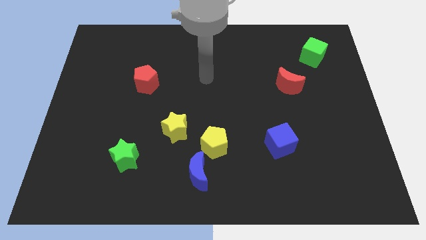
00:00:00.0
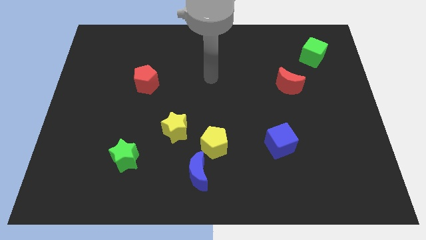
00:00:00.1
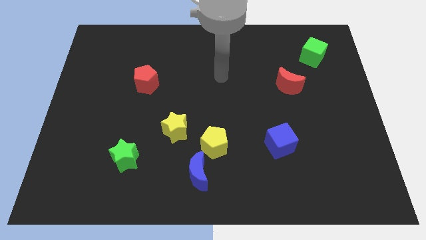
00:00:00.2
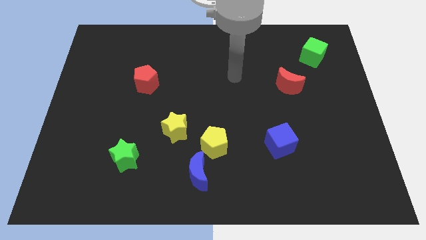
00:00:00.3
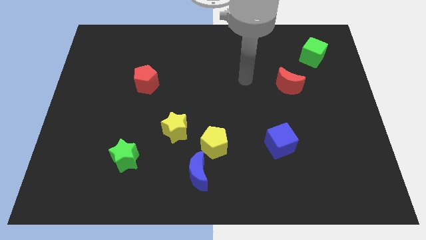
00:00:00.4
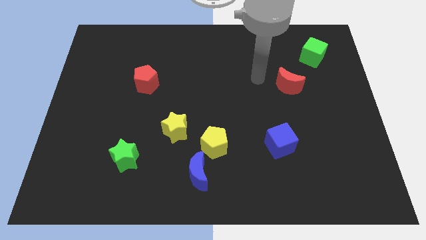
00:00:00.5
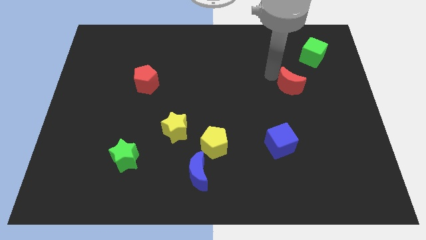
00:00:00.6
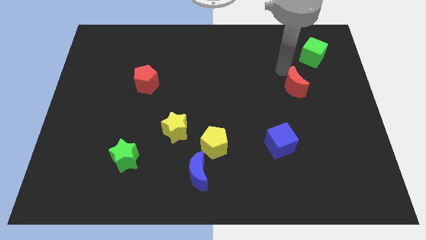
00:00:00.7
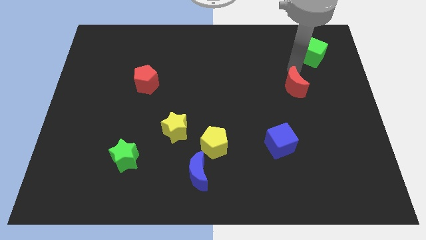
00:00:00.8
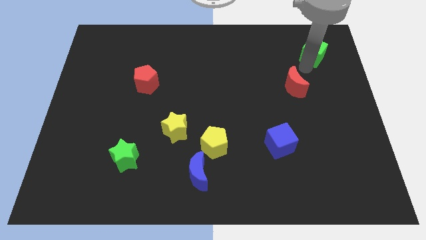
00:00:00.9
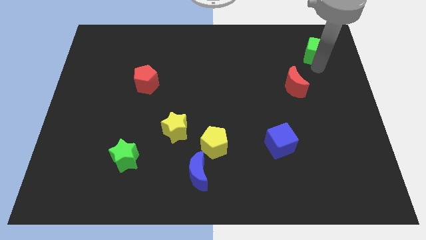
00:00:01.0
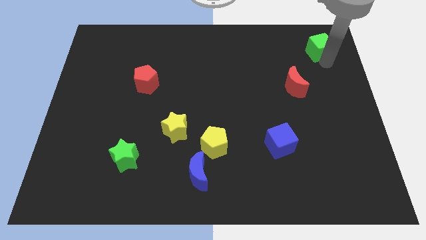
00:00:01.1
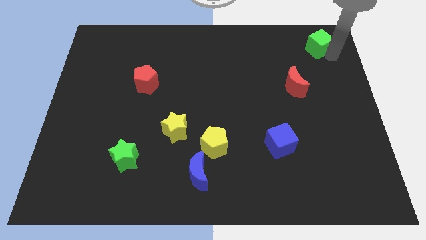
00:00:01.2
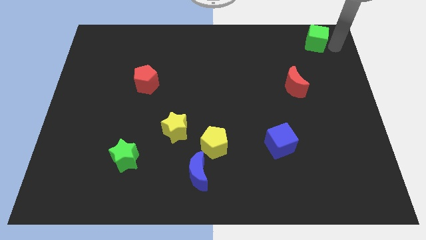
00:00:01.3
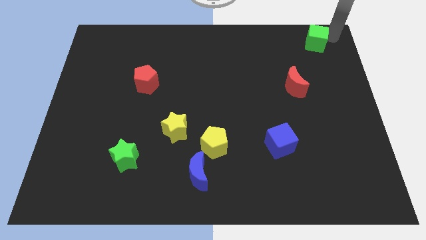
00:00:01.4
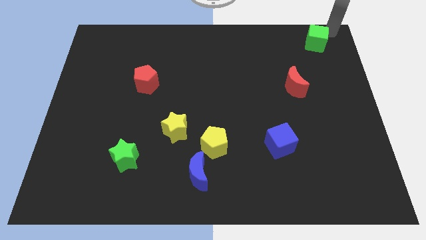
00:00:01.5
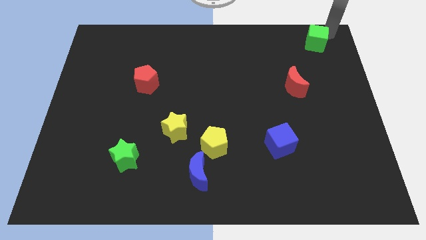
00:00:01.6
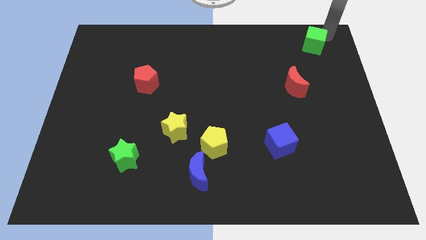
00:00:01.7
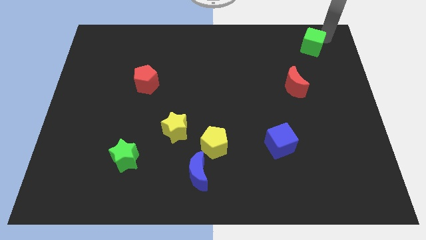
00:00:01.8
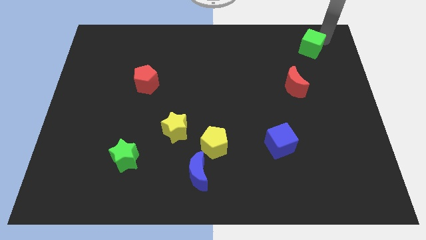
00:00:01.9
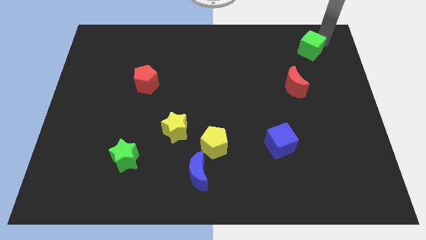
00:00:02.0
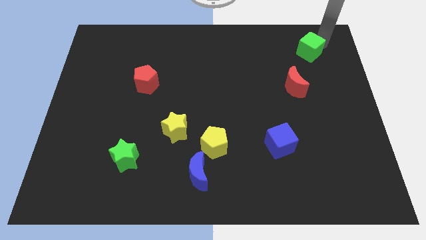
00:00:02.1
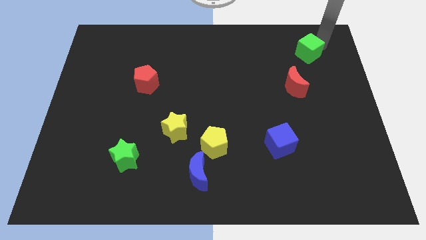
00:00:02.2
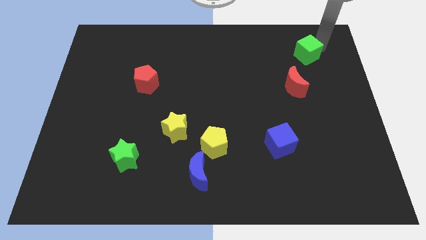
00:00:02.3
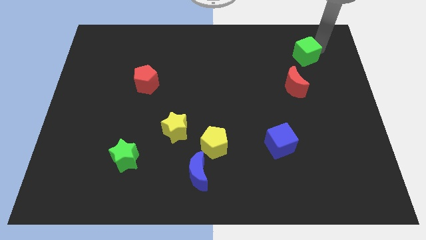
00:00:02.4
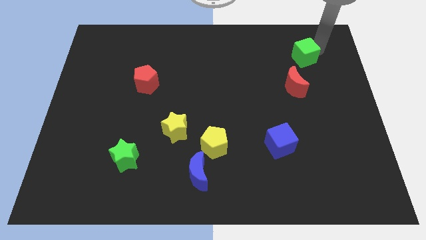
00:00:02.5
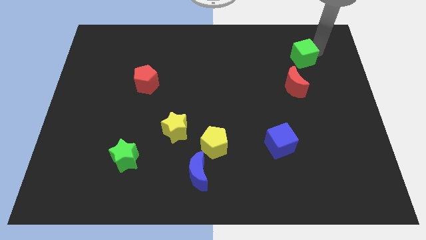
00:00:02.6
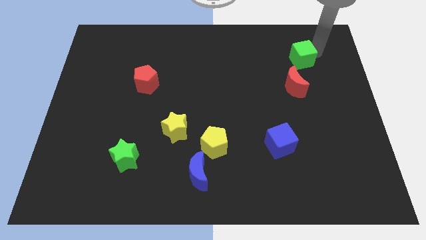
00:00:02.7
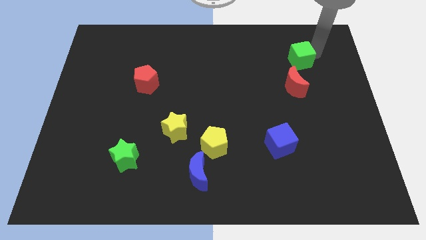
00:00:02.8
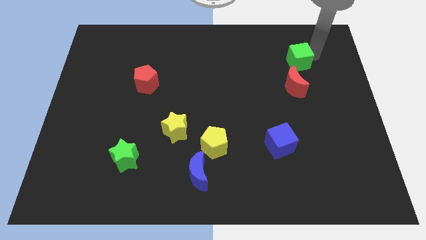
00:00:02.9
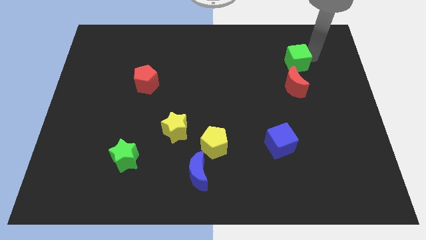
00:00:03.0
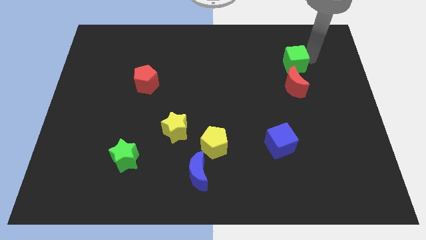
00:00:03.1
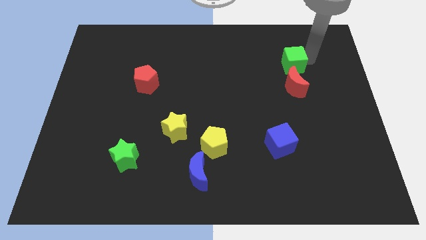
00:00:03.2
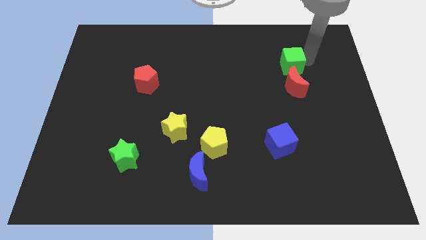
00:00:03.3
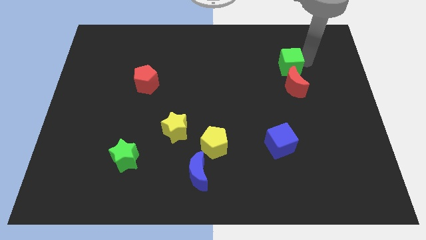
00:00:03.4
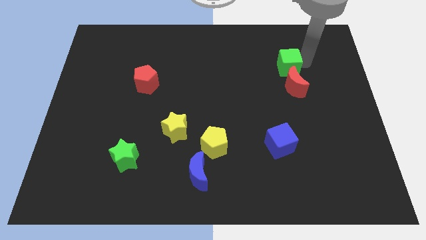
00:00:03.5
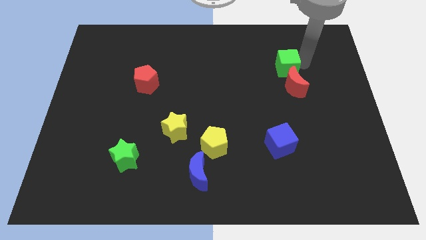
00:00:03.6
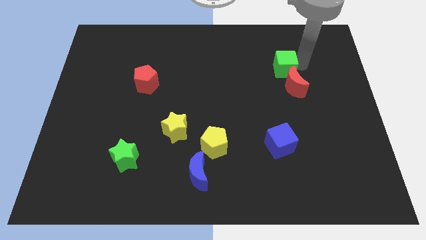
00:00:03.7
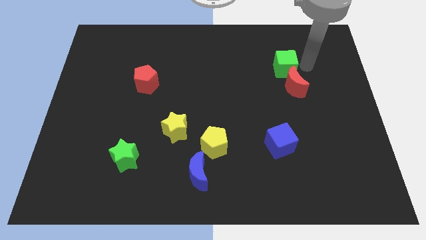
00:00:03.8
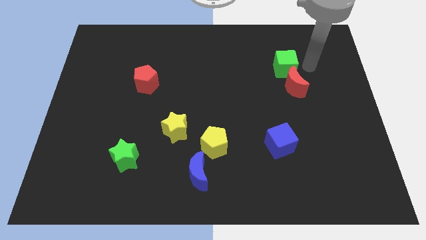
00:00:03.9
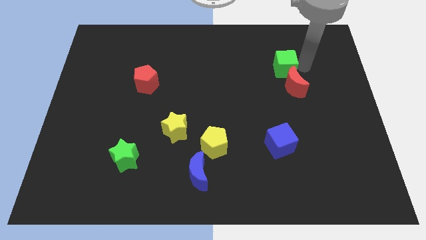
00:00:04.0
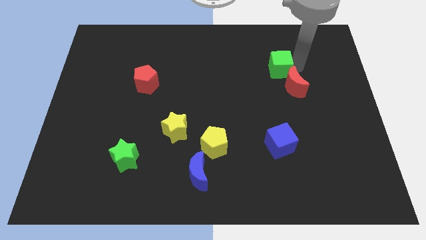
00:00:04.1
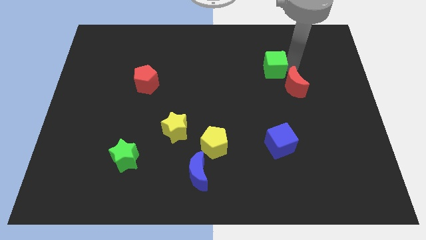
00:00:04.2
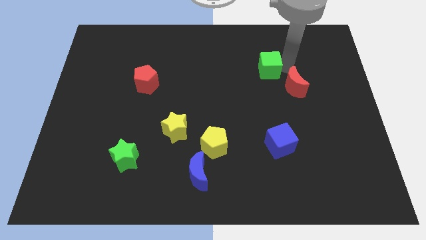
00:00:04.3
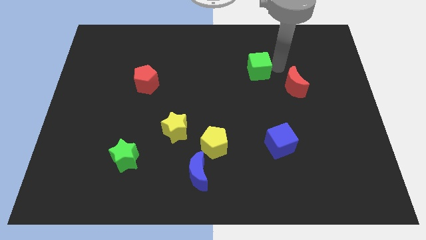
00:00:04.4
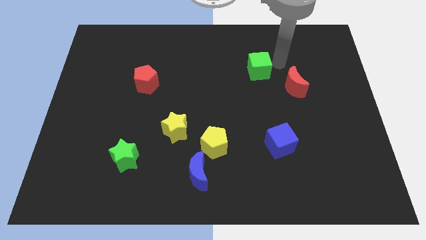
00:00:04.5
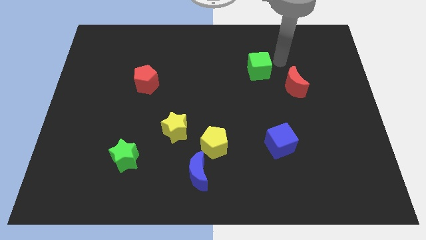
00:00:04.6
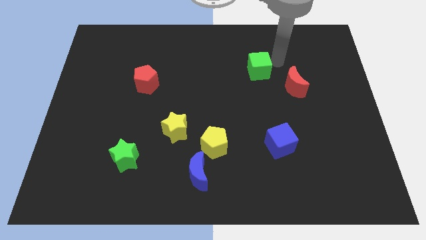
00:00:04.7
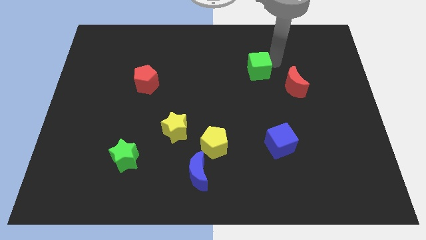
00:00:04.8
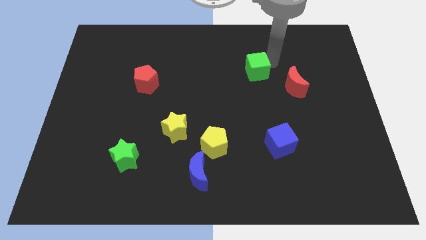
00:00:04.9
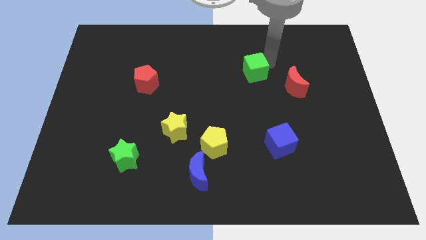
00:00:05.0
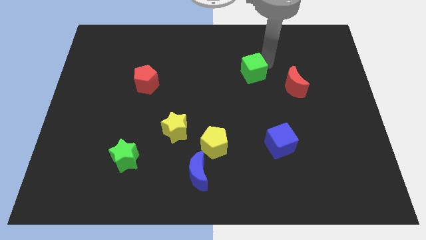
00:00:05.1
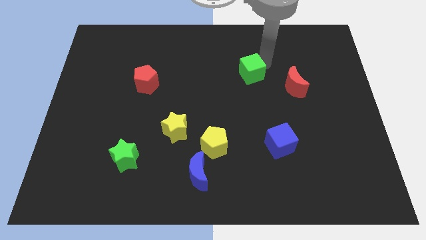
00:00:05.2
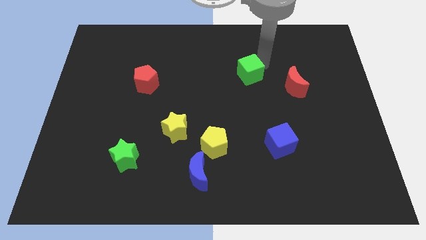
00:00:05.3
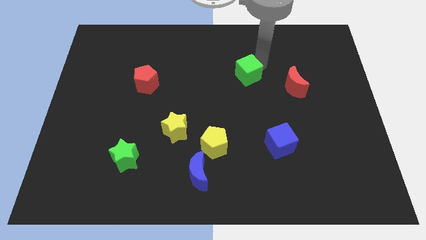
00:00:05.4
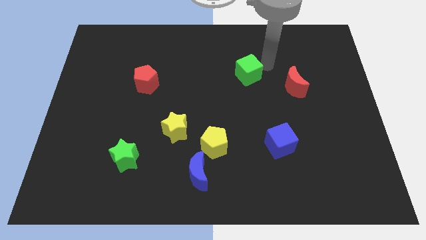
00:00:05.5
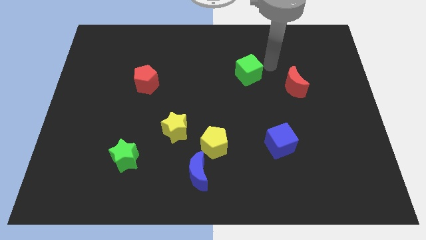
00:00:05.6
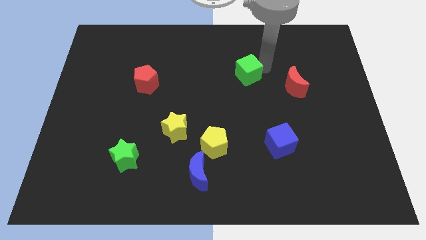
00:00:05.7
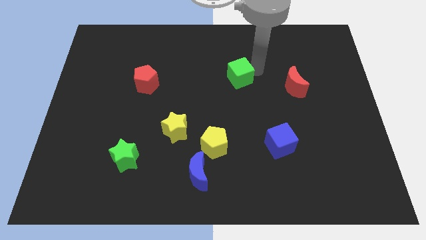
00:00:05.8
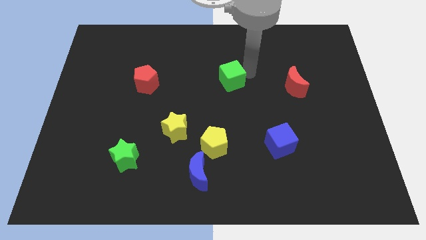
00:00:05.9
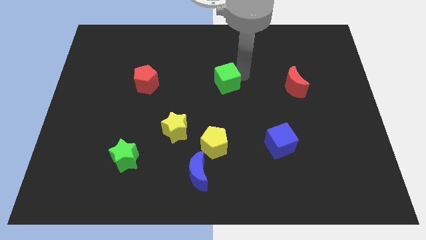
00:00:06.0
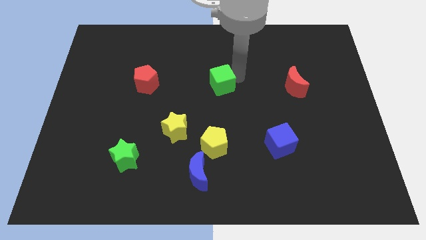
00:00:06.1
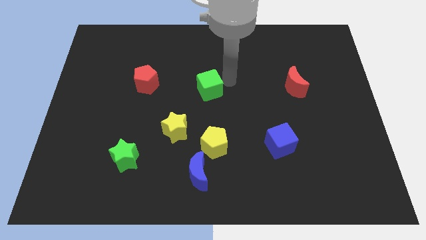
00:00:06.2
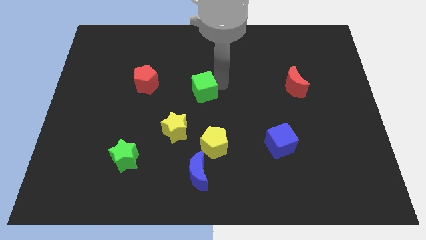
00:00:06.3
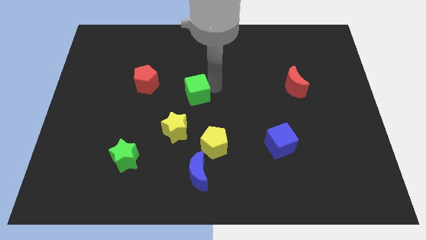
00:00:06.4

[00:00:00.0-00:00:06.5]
push the green cube to the top side of the yellow star

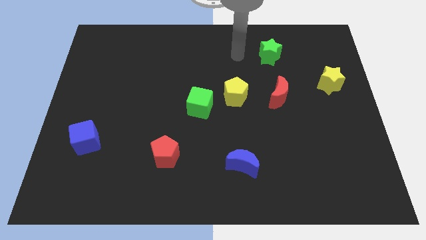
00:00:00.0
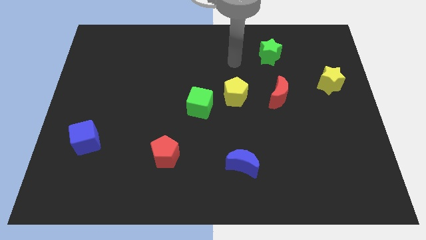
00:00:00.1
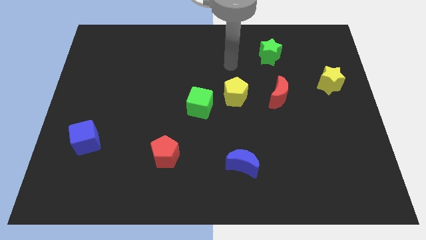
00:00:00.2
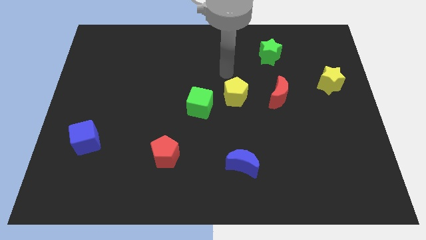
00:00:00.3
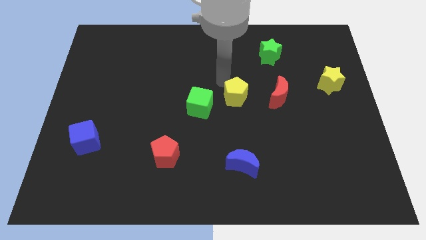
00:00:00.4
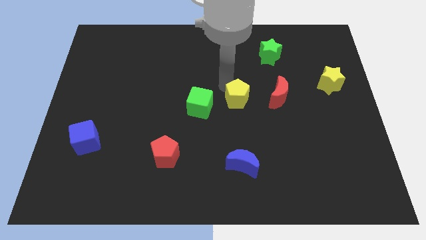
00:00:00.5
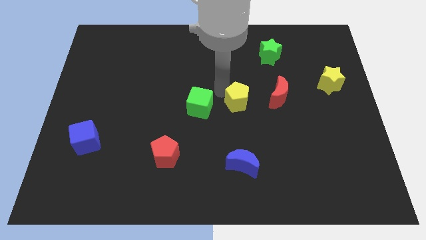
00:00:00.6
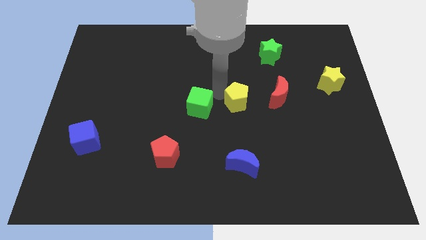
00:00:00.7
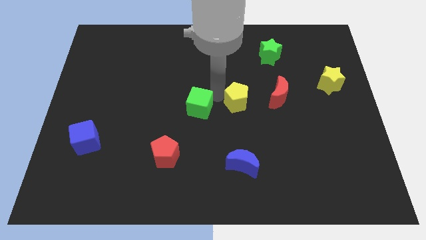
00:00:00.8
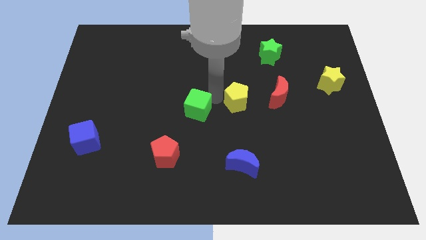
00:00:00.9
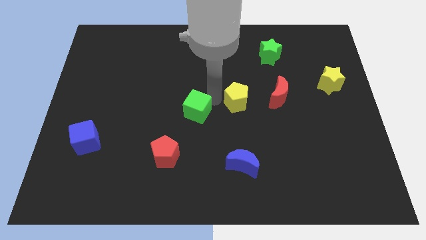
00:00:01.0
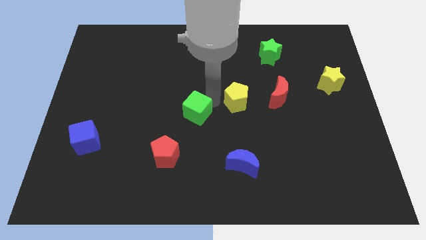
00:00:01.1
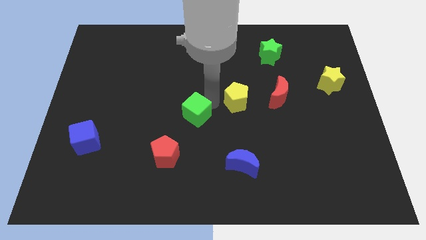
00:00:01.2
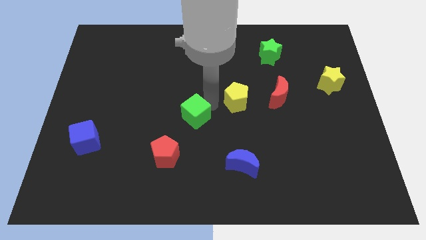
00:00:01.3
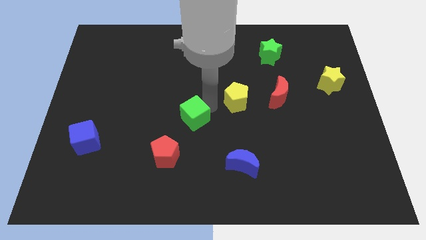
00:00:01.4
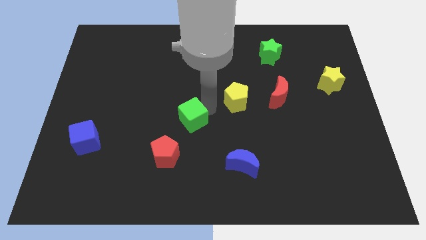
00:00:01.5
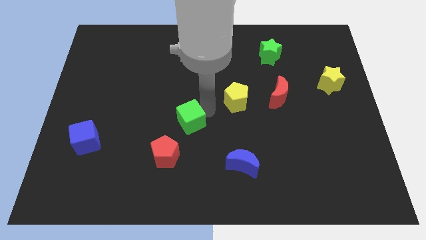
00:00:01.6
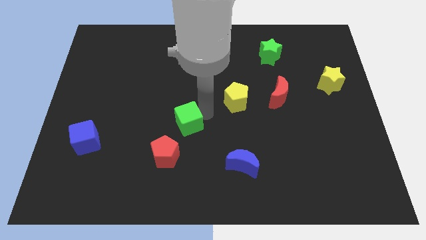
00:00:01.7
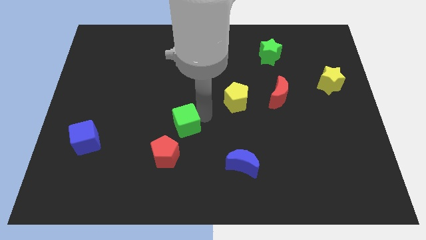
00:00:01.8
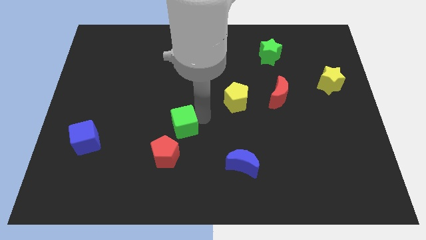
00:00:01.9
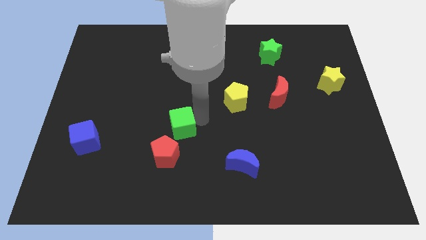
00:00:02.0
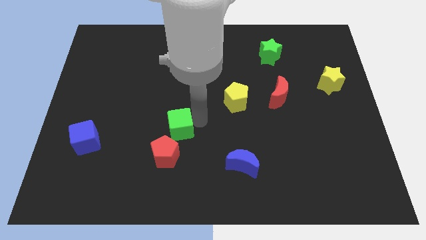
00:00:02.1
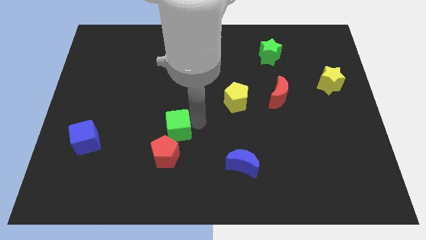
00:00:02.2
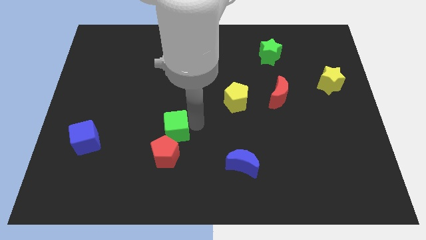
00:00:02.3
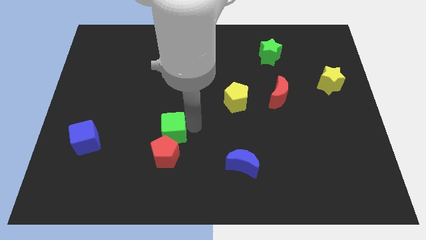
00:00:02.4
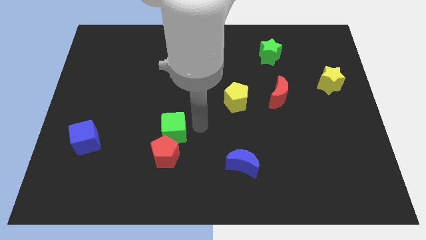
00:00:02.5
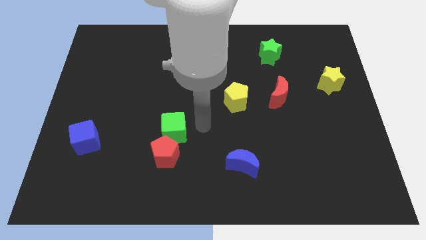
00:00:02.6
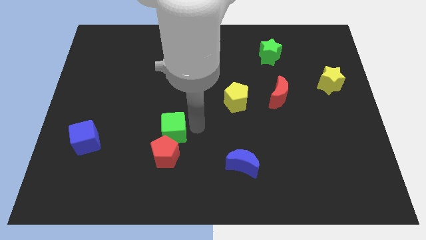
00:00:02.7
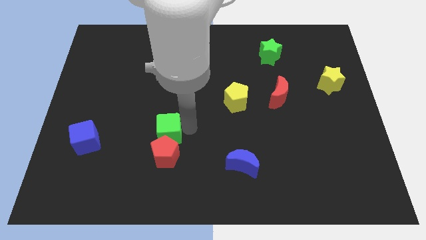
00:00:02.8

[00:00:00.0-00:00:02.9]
put the green cube diagonally up and to the left of the red pentagon
